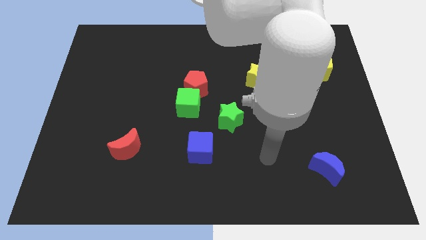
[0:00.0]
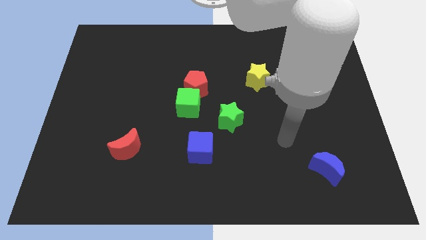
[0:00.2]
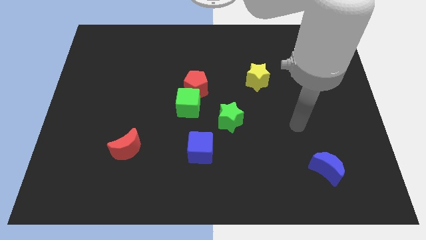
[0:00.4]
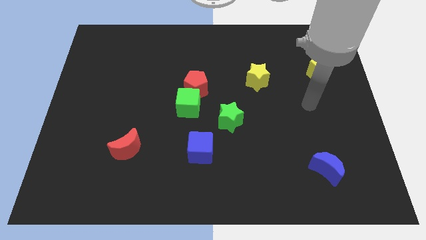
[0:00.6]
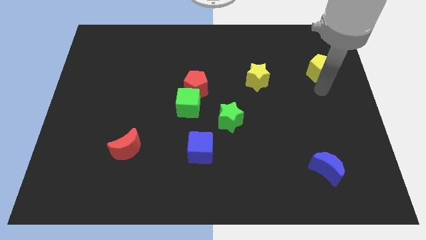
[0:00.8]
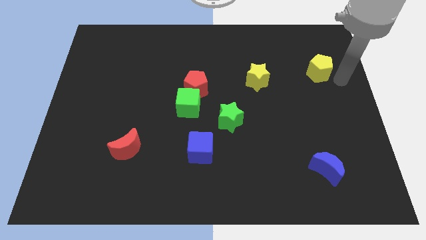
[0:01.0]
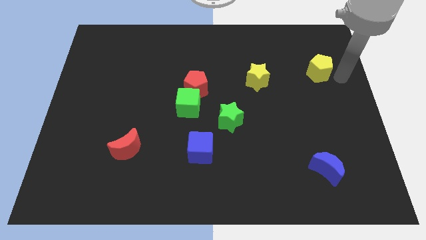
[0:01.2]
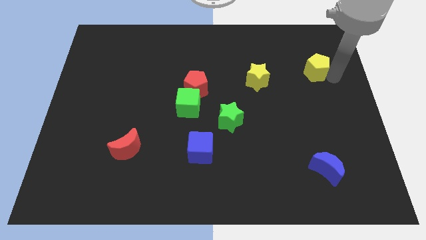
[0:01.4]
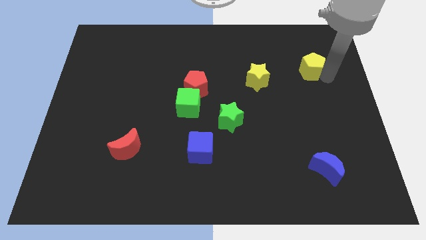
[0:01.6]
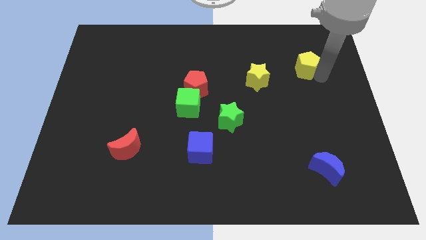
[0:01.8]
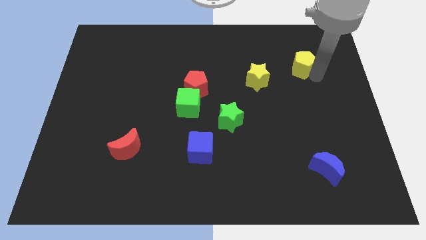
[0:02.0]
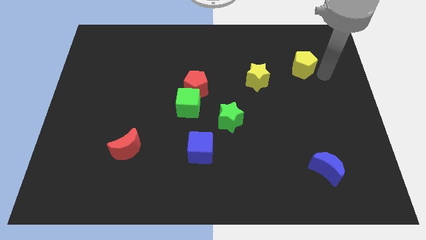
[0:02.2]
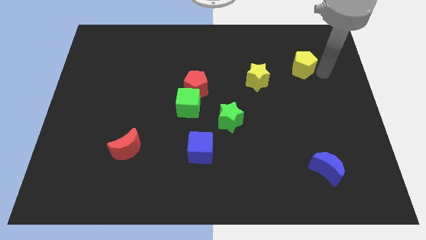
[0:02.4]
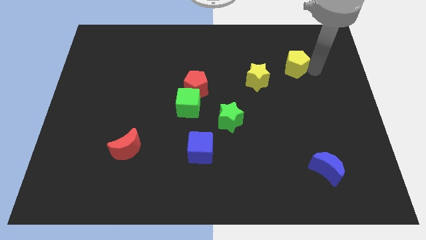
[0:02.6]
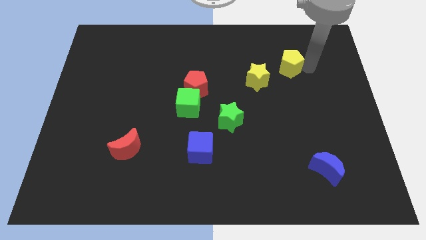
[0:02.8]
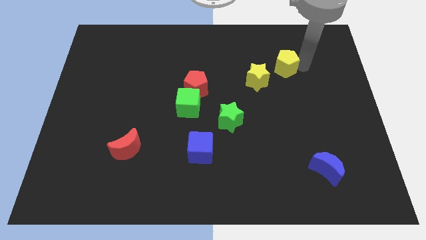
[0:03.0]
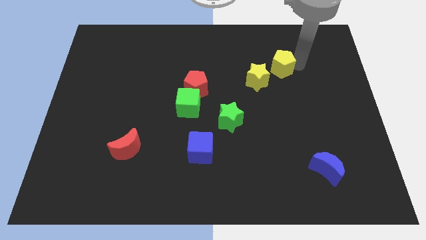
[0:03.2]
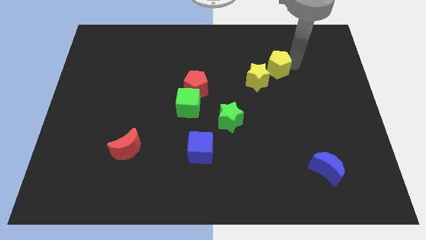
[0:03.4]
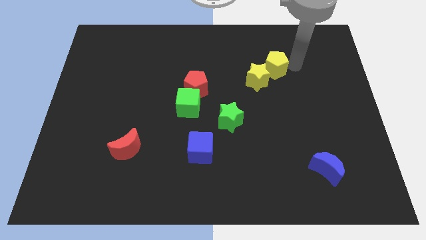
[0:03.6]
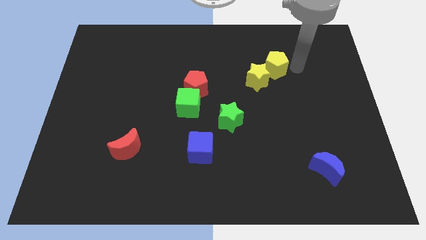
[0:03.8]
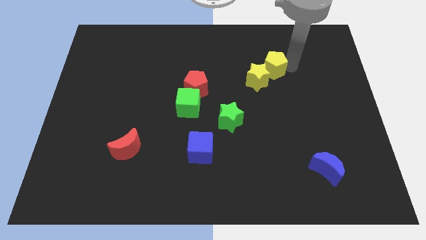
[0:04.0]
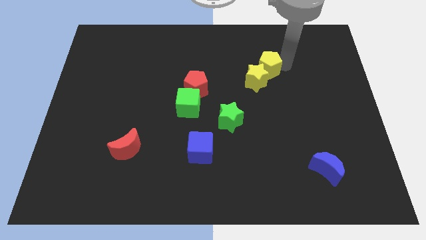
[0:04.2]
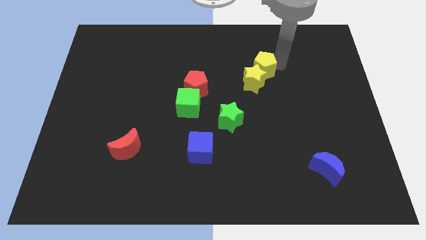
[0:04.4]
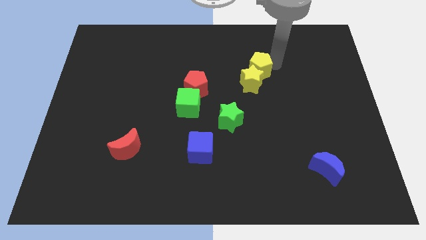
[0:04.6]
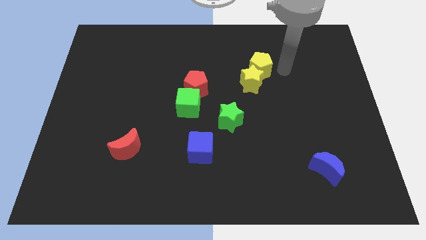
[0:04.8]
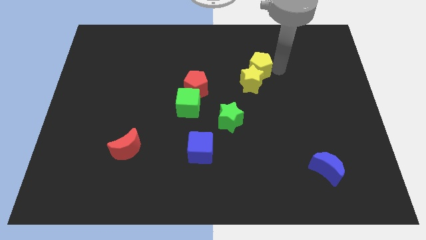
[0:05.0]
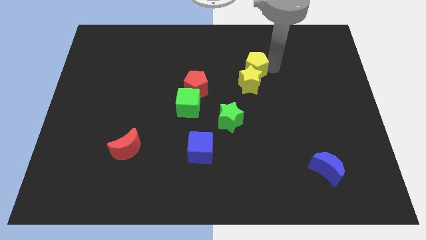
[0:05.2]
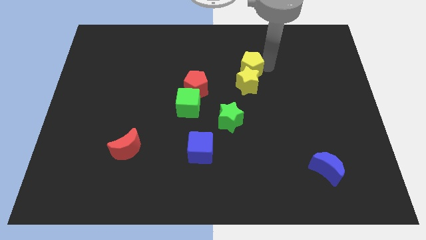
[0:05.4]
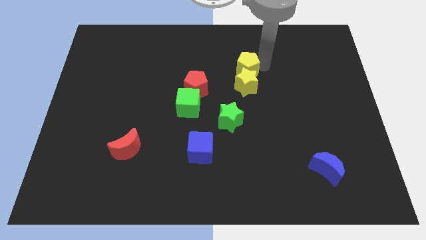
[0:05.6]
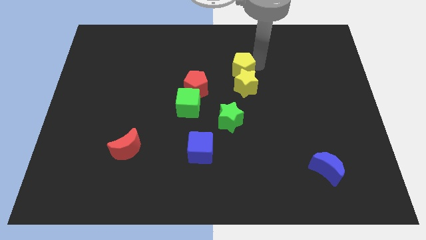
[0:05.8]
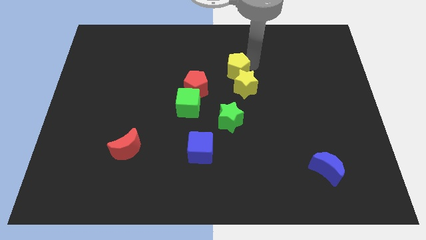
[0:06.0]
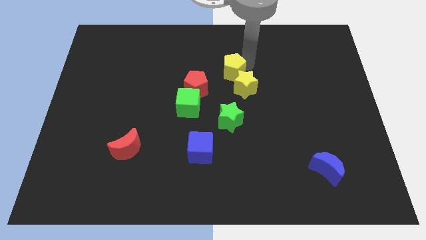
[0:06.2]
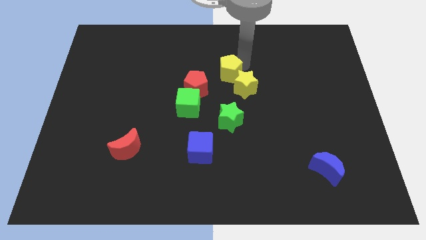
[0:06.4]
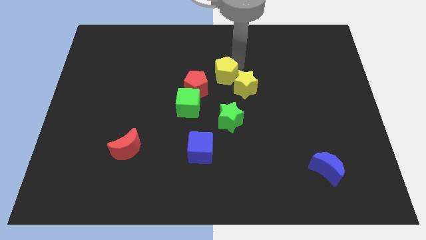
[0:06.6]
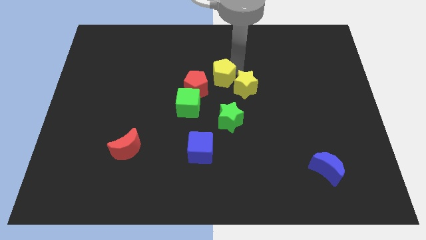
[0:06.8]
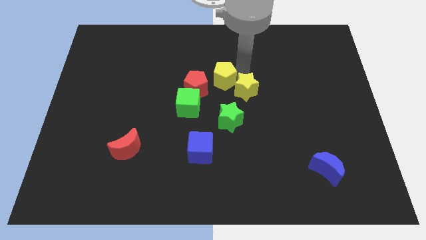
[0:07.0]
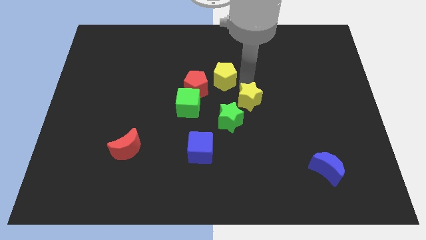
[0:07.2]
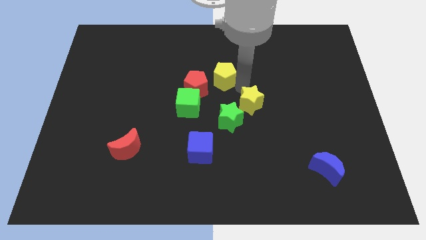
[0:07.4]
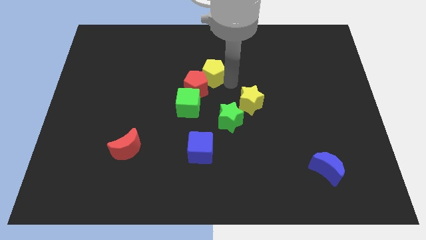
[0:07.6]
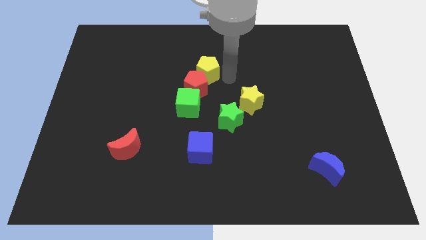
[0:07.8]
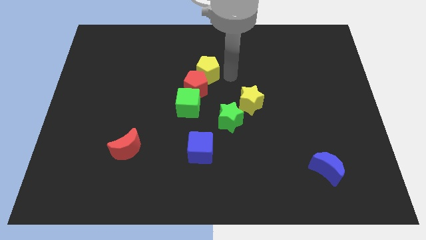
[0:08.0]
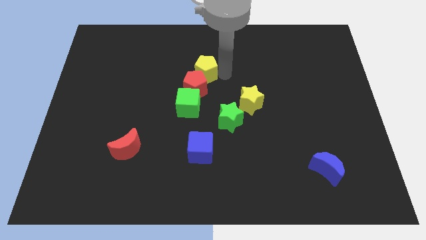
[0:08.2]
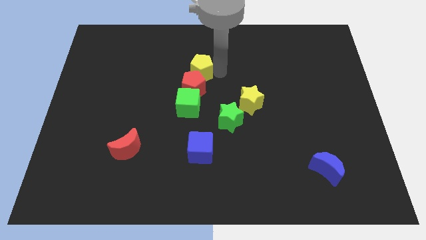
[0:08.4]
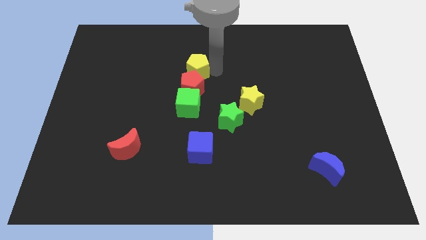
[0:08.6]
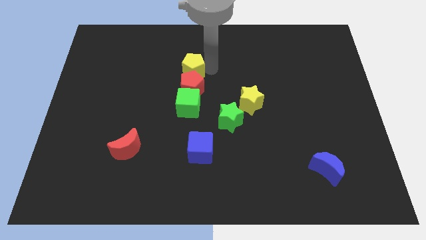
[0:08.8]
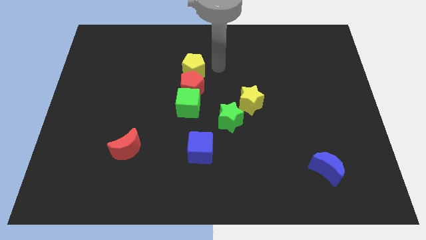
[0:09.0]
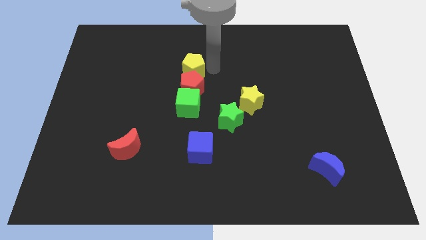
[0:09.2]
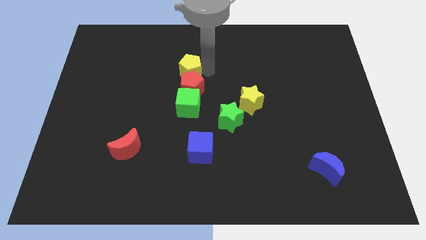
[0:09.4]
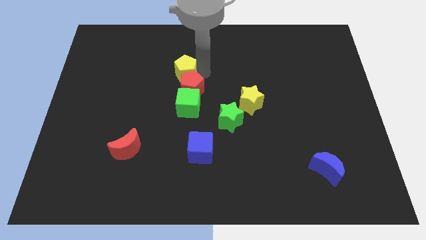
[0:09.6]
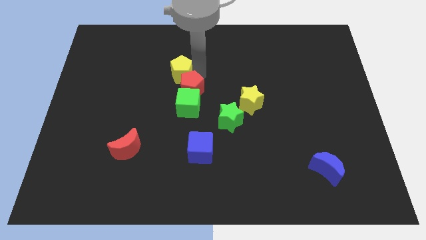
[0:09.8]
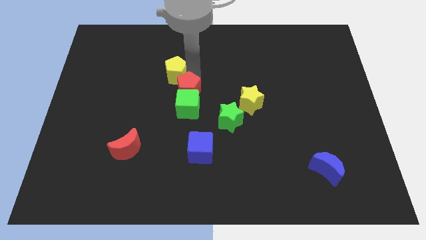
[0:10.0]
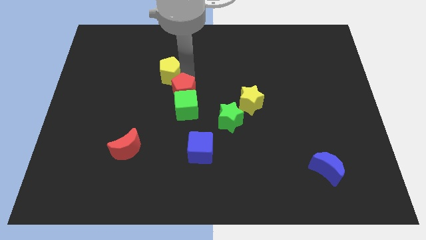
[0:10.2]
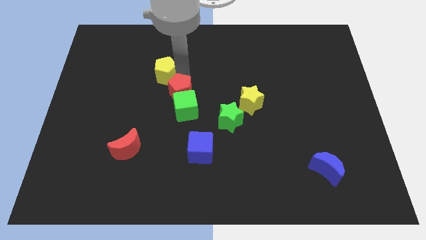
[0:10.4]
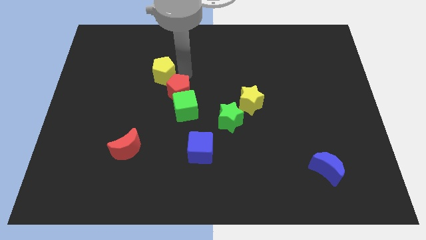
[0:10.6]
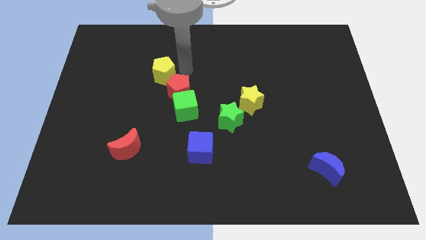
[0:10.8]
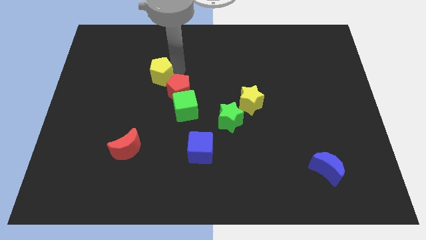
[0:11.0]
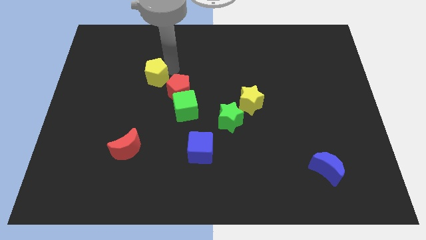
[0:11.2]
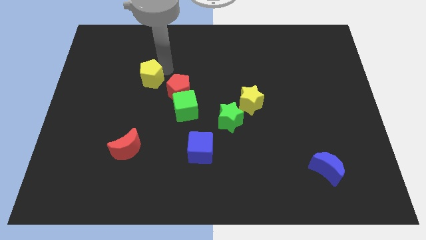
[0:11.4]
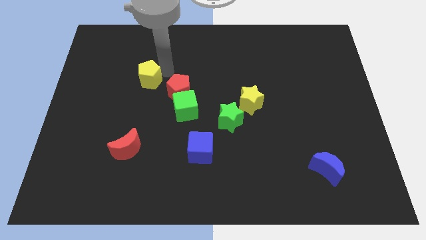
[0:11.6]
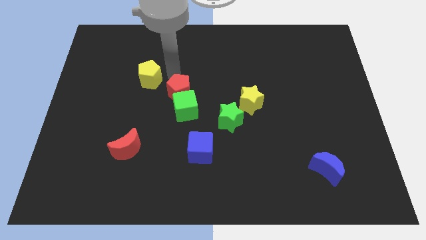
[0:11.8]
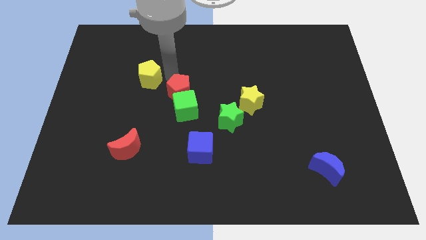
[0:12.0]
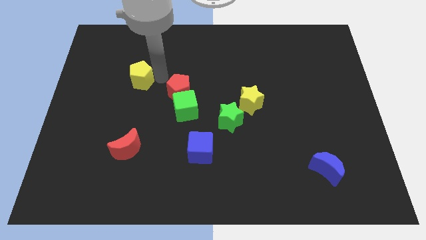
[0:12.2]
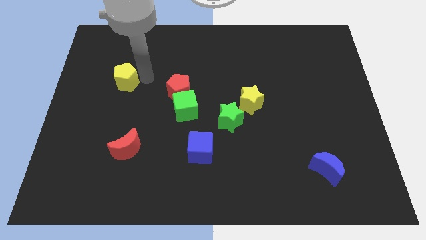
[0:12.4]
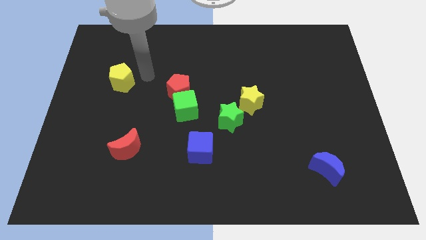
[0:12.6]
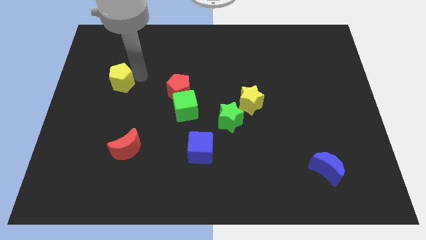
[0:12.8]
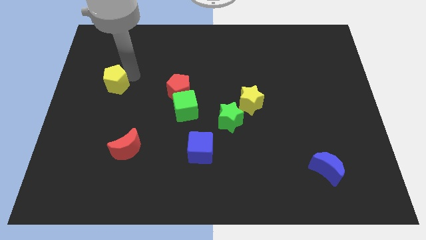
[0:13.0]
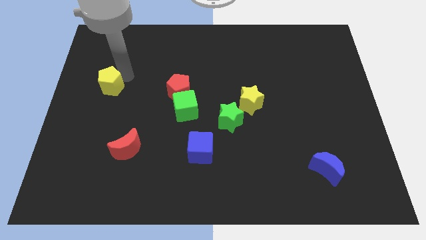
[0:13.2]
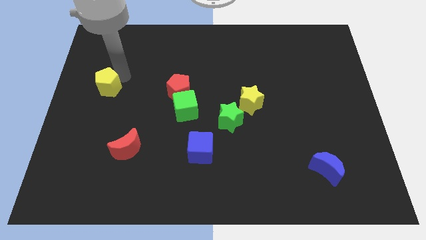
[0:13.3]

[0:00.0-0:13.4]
put the yellow pentagon to the center left

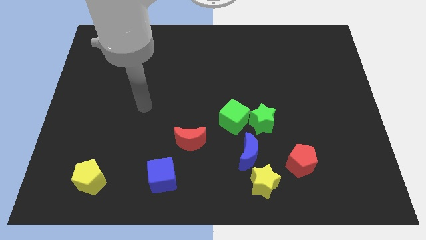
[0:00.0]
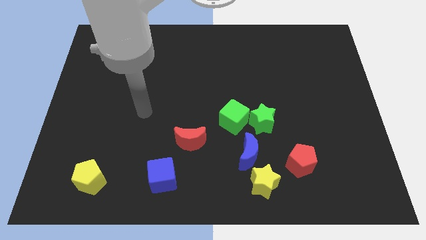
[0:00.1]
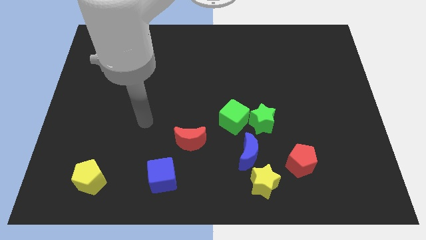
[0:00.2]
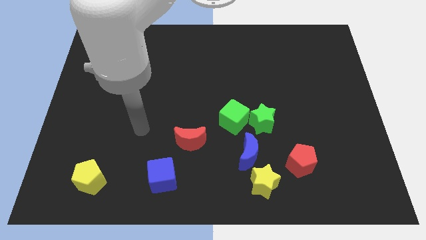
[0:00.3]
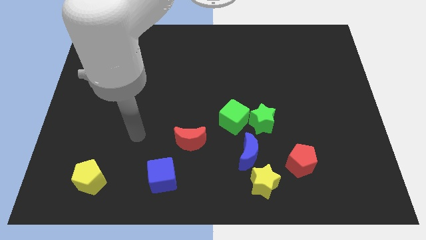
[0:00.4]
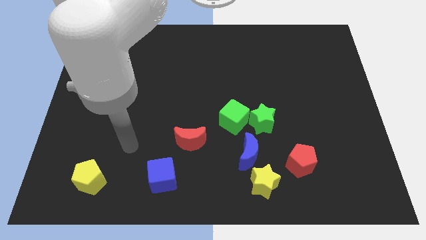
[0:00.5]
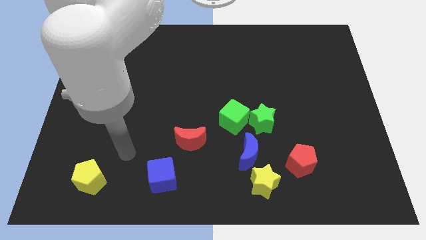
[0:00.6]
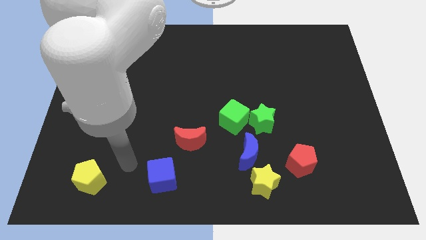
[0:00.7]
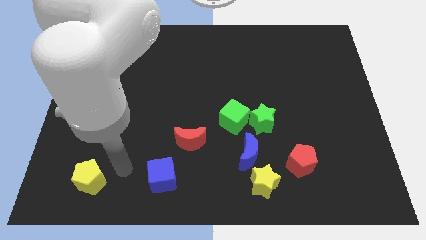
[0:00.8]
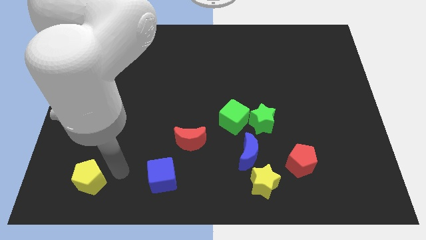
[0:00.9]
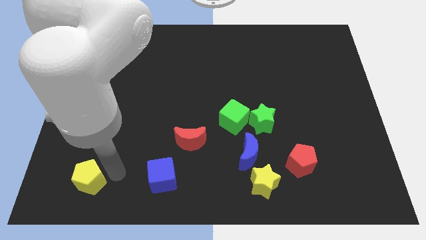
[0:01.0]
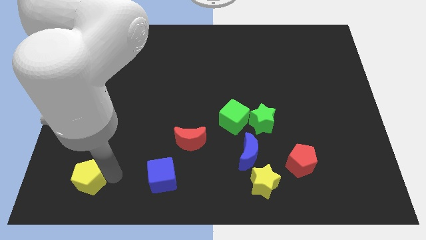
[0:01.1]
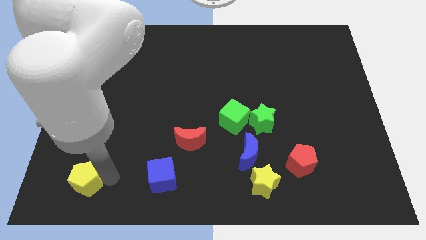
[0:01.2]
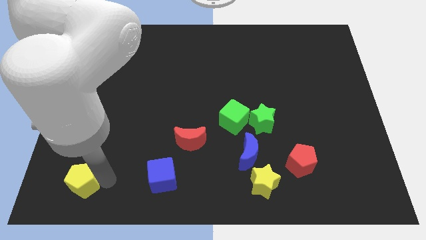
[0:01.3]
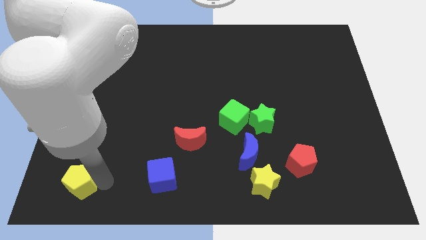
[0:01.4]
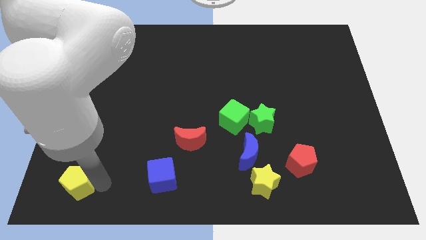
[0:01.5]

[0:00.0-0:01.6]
put the yellow pentagon to the lower left corner
